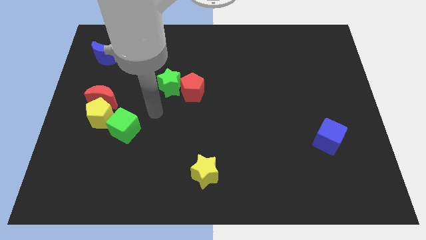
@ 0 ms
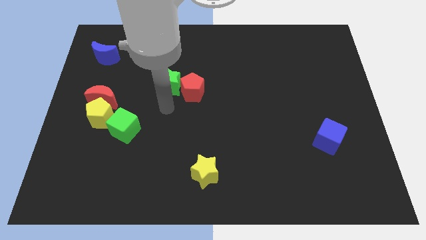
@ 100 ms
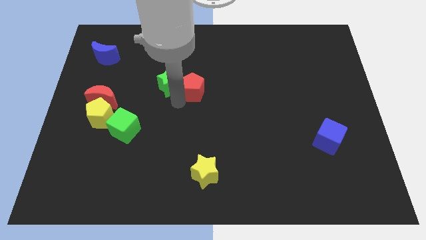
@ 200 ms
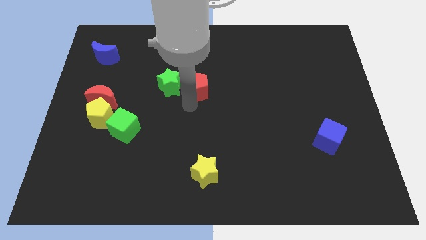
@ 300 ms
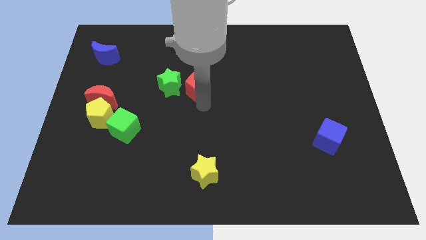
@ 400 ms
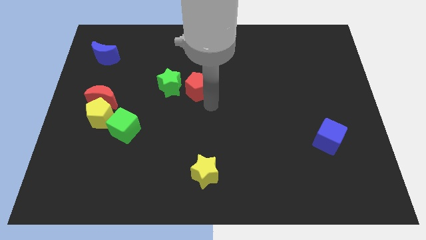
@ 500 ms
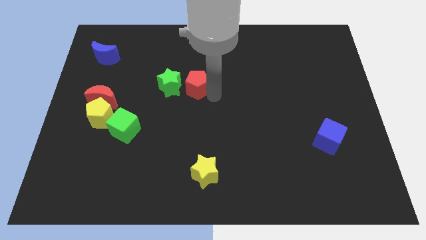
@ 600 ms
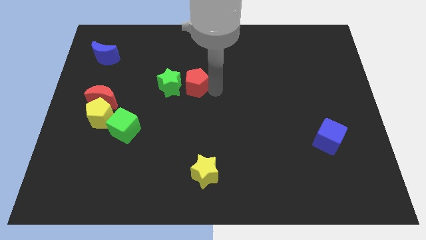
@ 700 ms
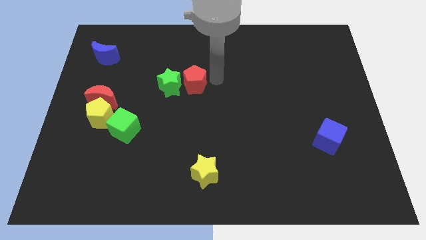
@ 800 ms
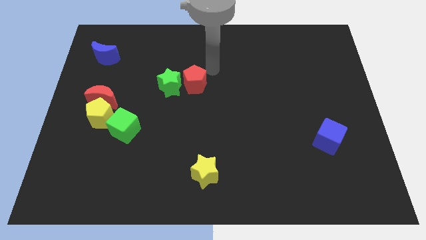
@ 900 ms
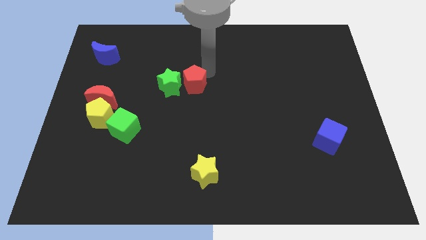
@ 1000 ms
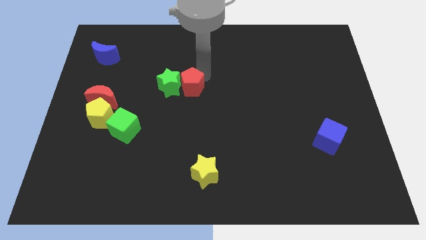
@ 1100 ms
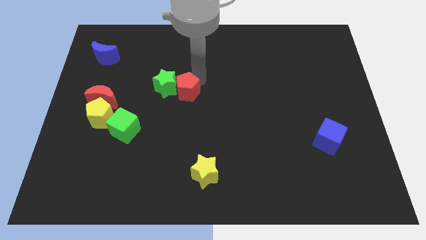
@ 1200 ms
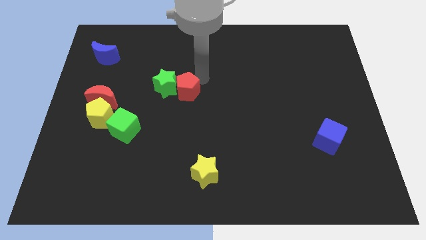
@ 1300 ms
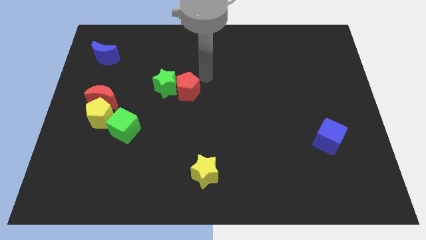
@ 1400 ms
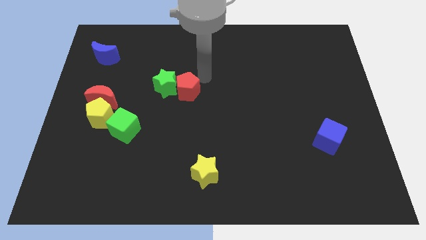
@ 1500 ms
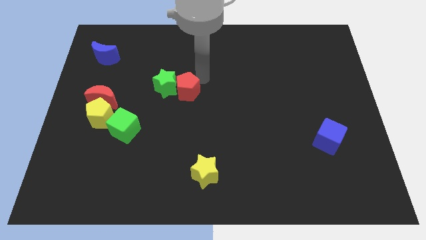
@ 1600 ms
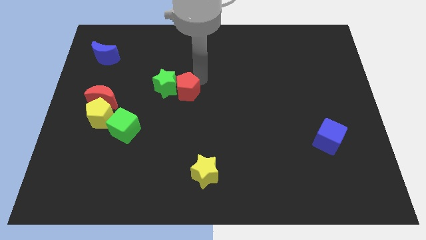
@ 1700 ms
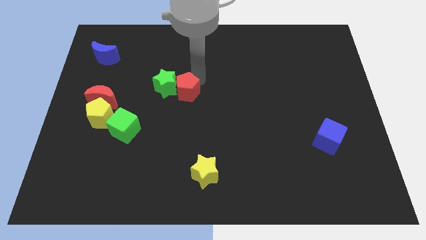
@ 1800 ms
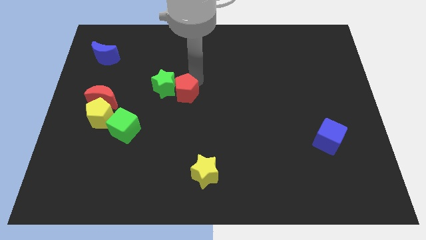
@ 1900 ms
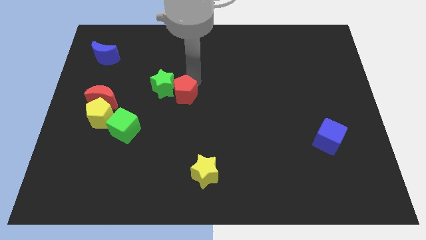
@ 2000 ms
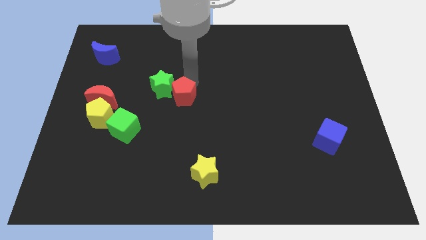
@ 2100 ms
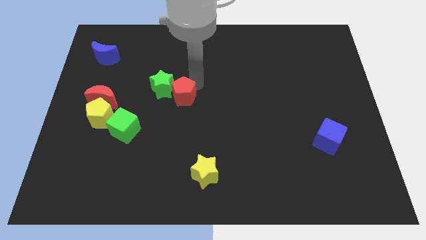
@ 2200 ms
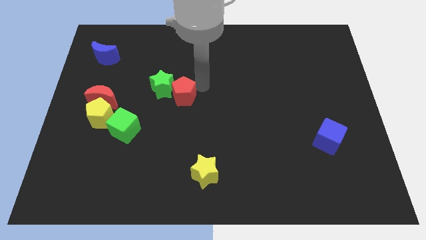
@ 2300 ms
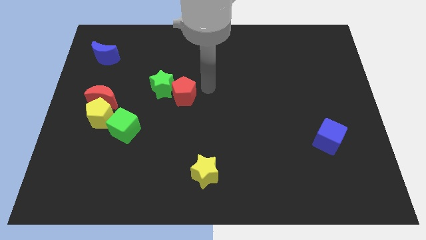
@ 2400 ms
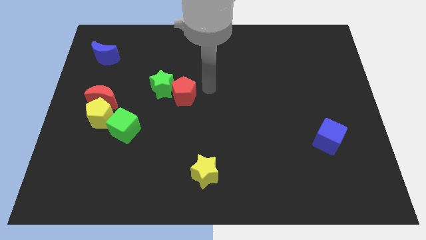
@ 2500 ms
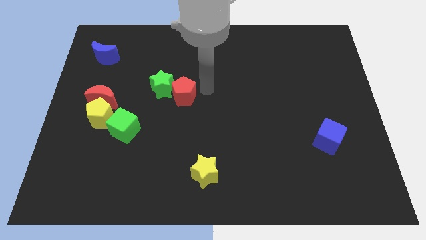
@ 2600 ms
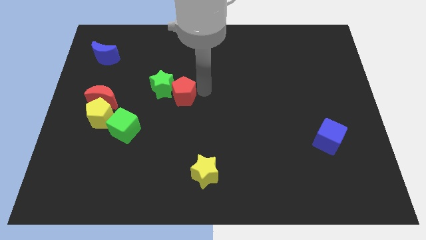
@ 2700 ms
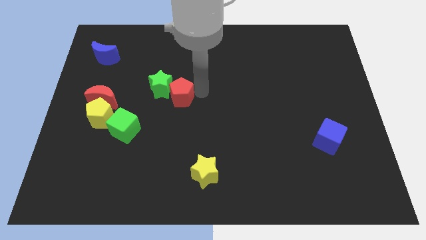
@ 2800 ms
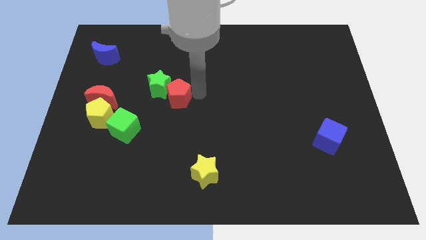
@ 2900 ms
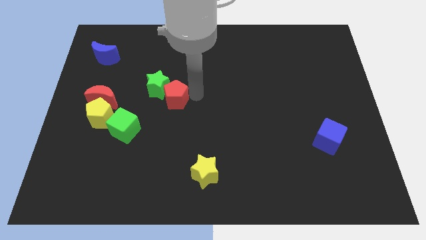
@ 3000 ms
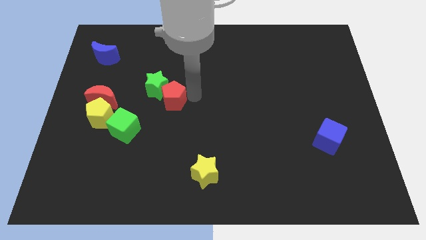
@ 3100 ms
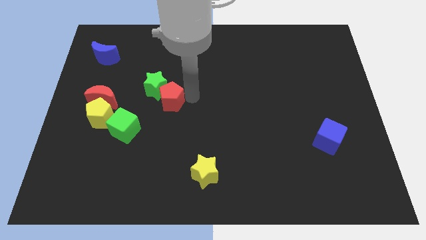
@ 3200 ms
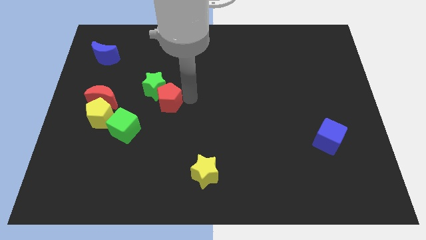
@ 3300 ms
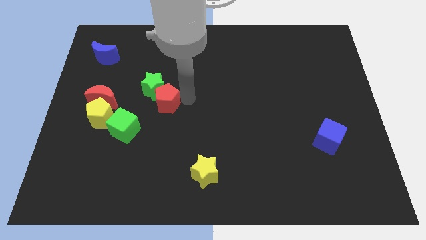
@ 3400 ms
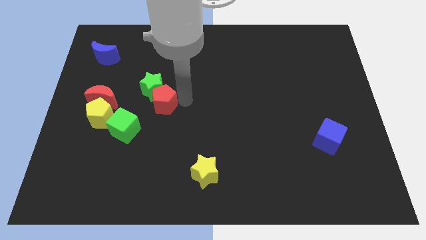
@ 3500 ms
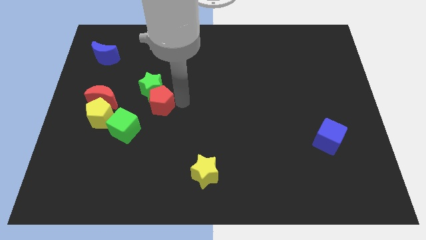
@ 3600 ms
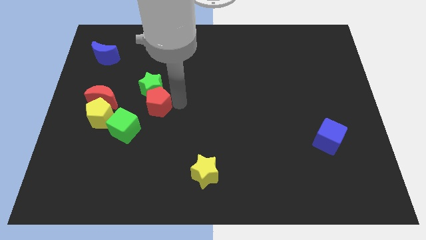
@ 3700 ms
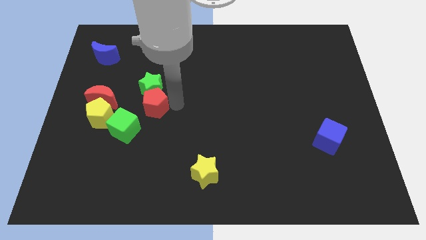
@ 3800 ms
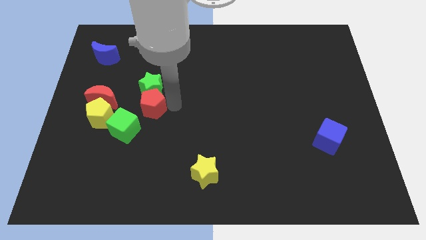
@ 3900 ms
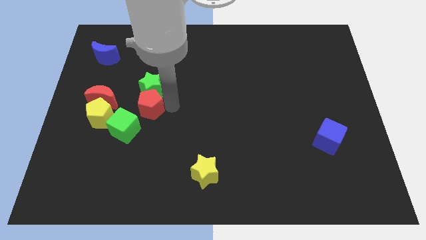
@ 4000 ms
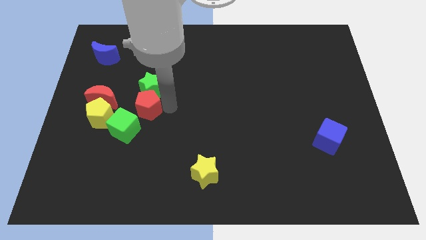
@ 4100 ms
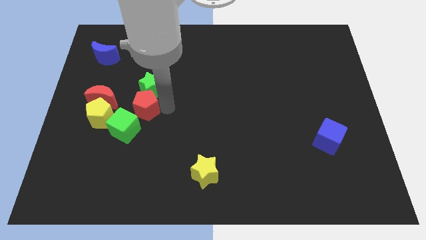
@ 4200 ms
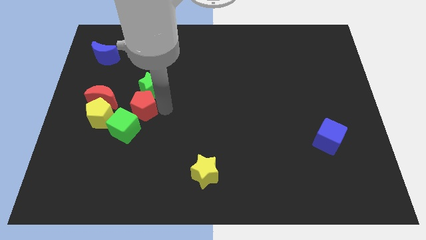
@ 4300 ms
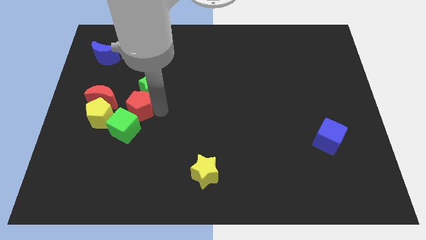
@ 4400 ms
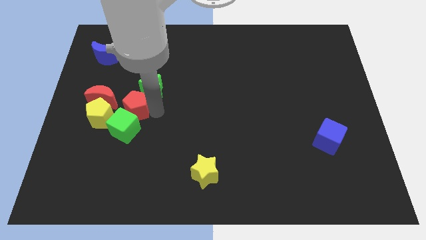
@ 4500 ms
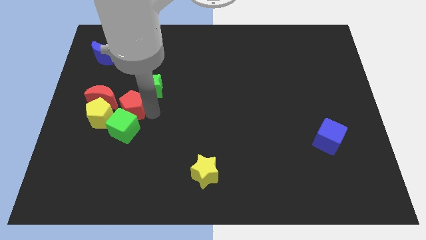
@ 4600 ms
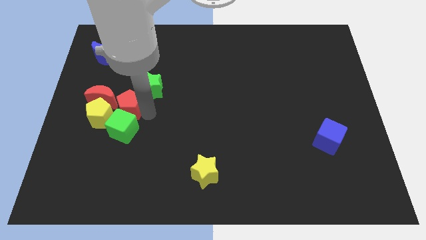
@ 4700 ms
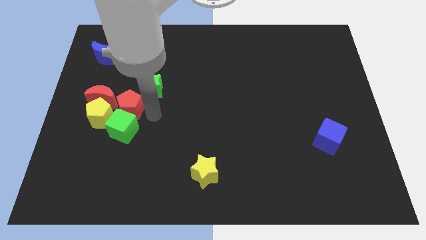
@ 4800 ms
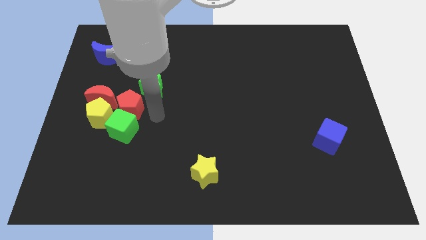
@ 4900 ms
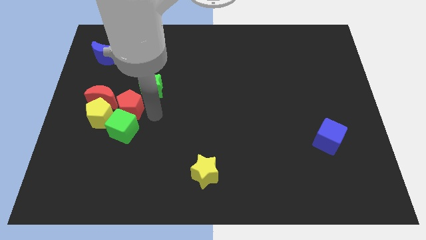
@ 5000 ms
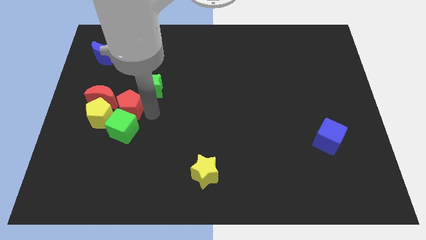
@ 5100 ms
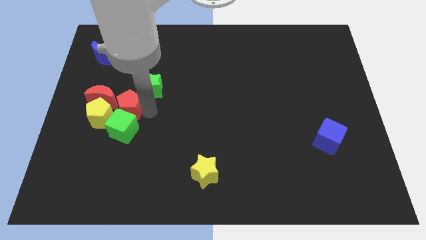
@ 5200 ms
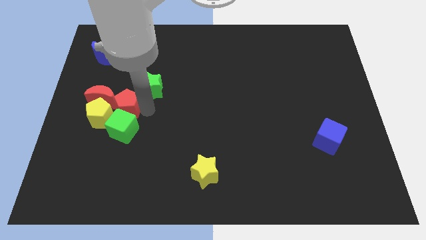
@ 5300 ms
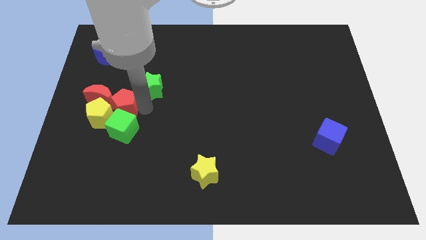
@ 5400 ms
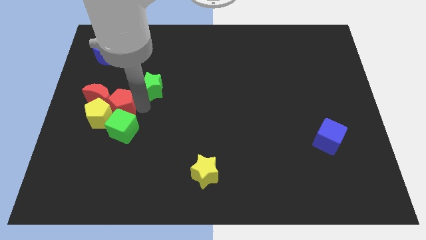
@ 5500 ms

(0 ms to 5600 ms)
move the red pentagon next to the red moon

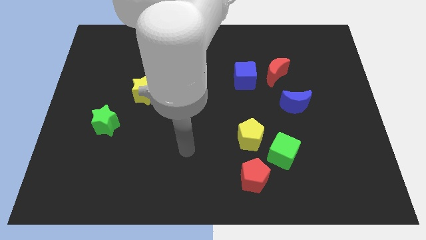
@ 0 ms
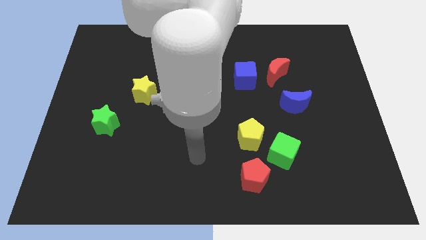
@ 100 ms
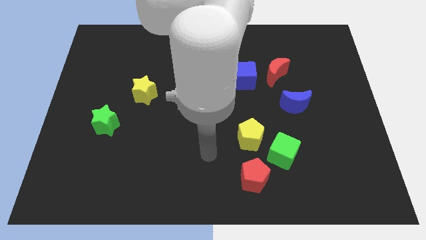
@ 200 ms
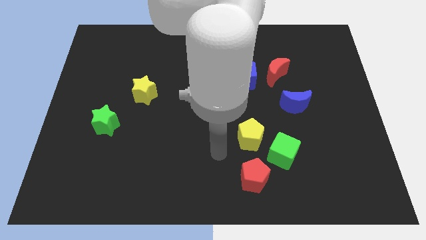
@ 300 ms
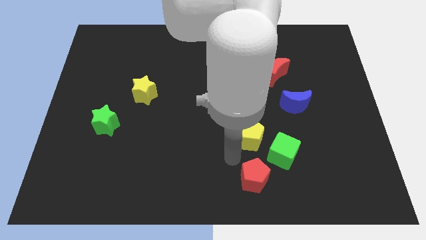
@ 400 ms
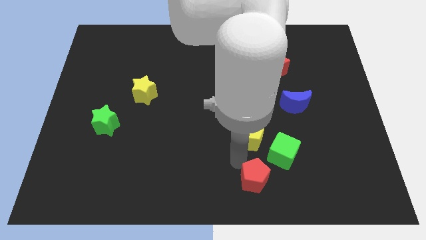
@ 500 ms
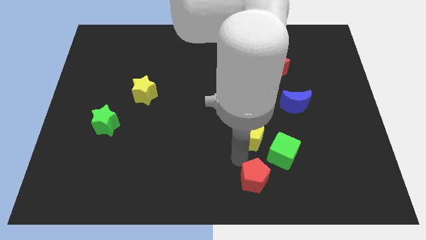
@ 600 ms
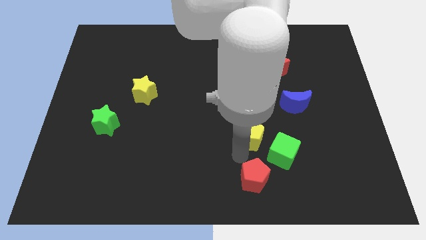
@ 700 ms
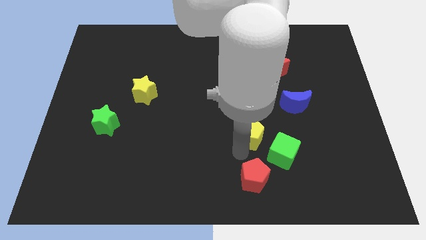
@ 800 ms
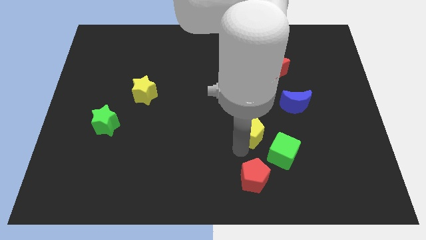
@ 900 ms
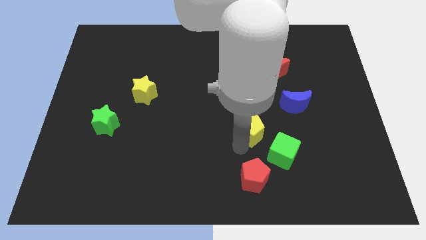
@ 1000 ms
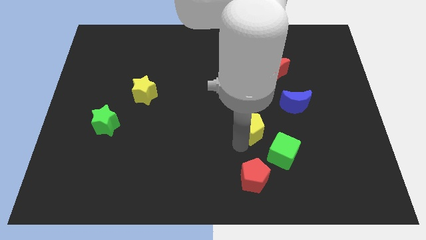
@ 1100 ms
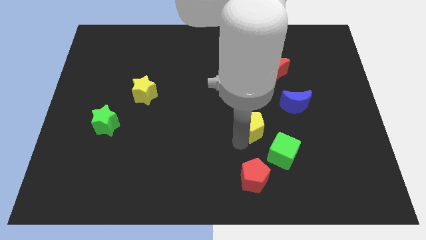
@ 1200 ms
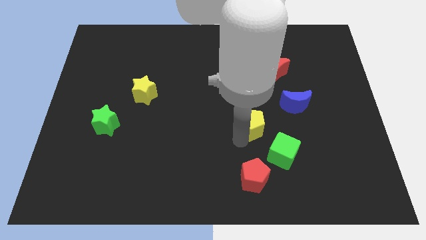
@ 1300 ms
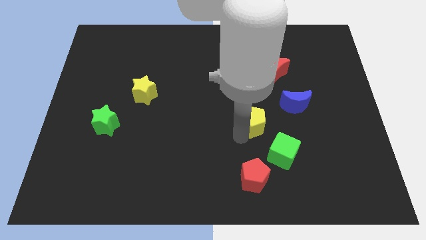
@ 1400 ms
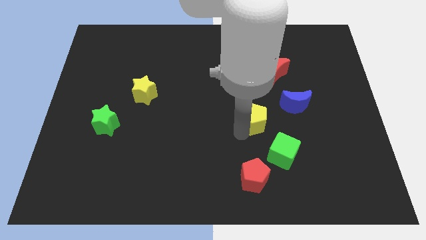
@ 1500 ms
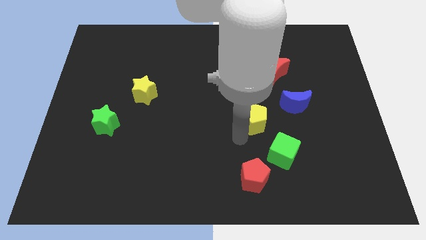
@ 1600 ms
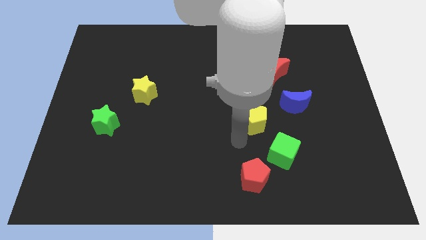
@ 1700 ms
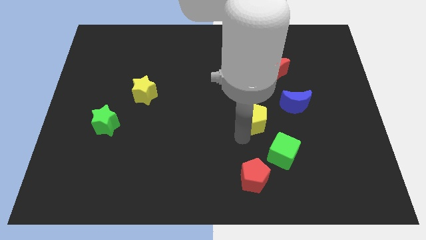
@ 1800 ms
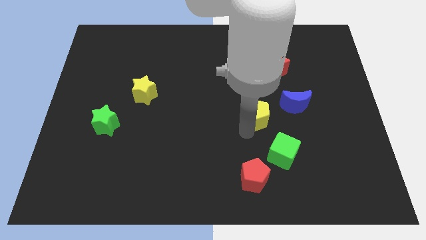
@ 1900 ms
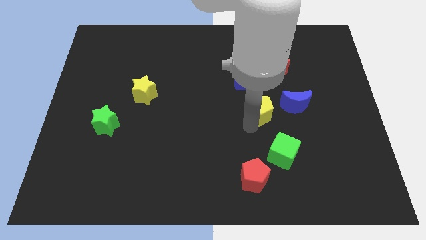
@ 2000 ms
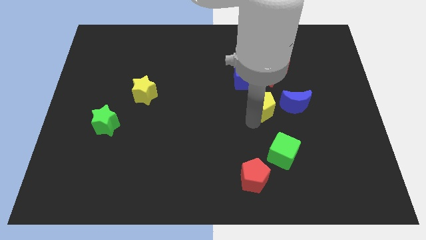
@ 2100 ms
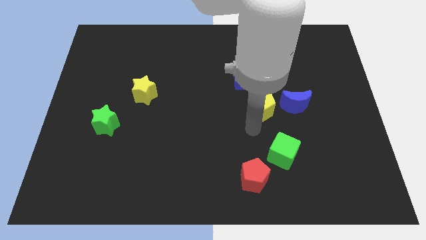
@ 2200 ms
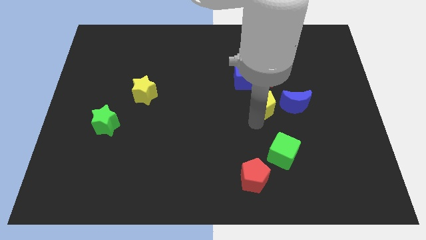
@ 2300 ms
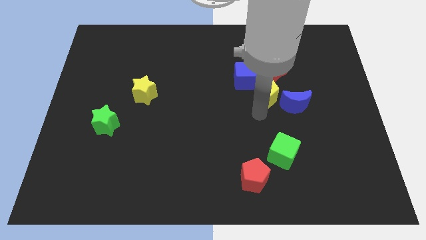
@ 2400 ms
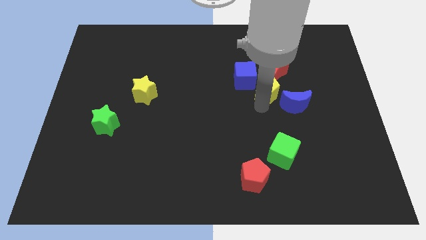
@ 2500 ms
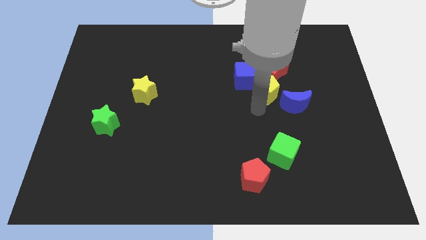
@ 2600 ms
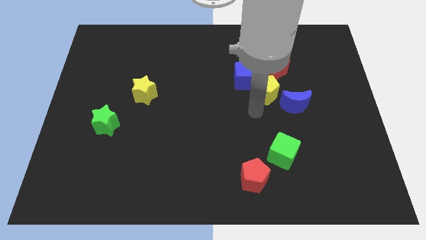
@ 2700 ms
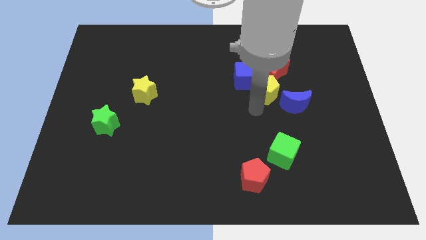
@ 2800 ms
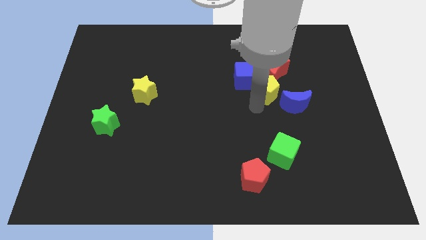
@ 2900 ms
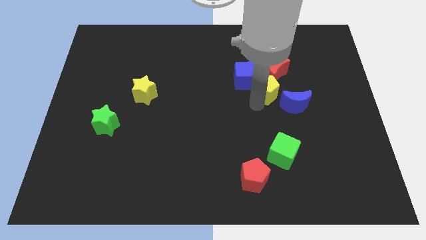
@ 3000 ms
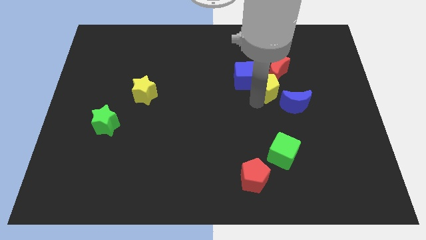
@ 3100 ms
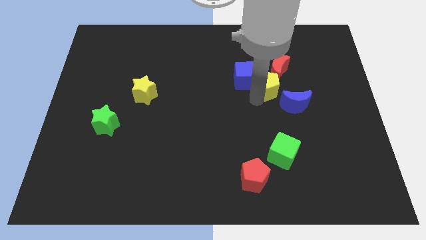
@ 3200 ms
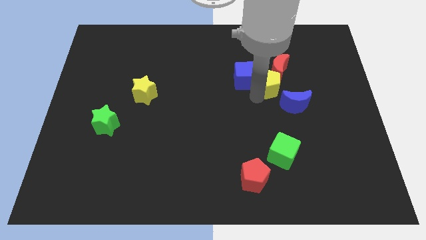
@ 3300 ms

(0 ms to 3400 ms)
put the yellow pentagon to the red moon
